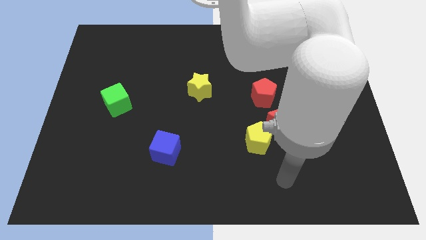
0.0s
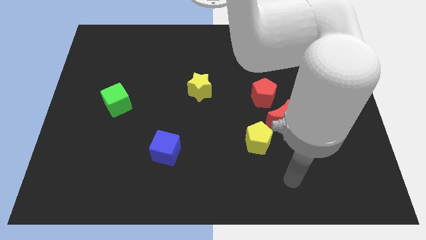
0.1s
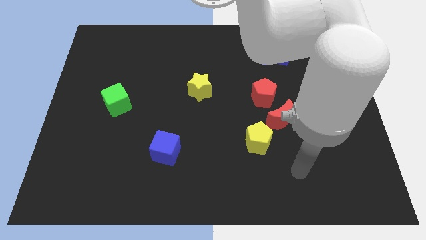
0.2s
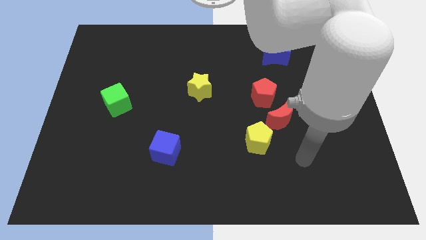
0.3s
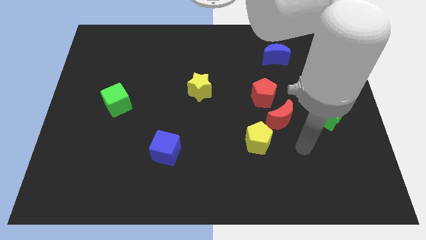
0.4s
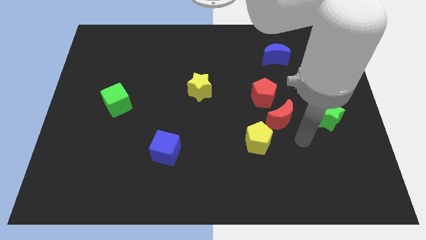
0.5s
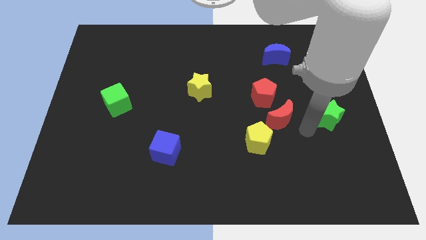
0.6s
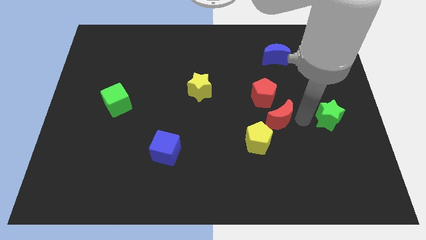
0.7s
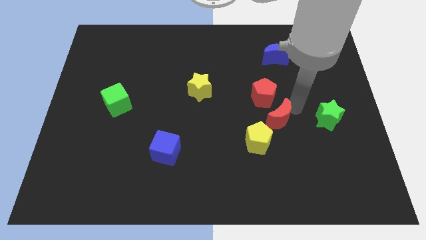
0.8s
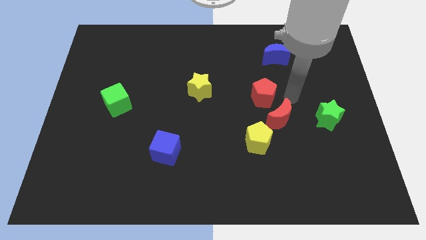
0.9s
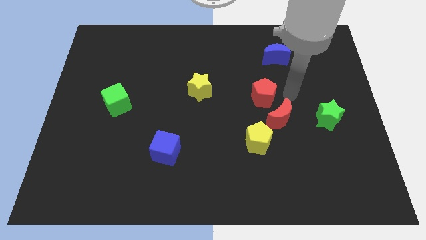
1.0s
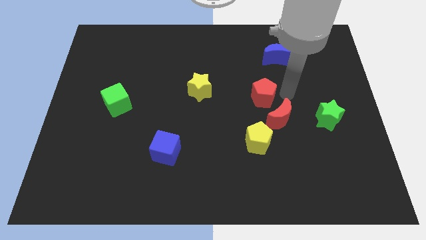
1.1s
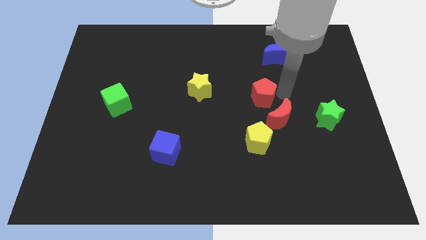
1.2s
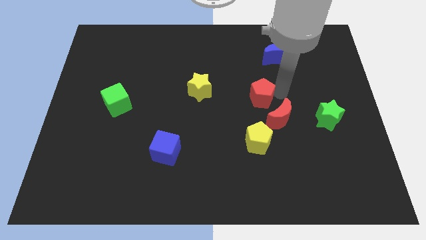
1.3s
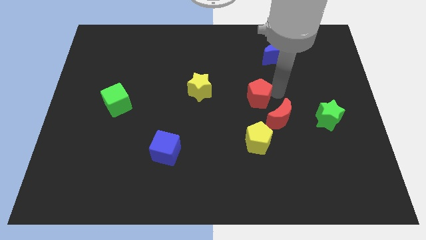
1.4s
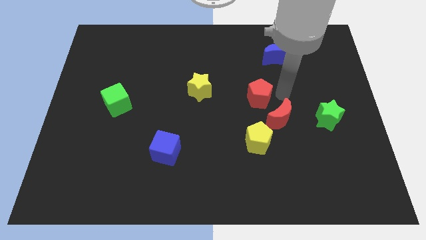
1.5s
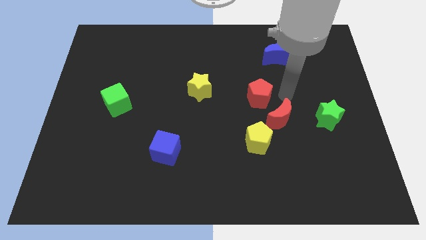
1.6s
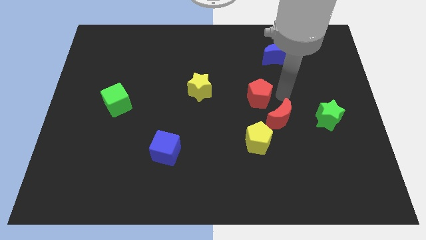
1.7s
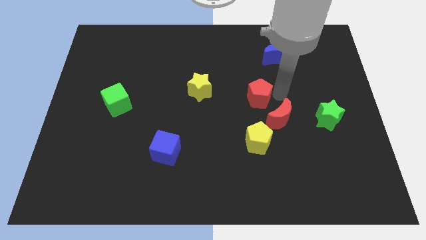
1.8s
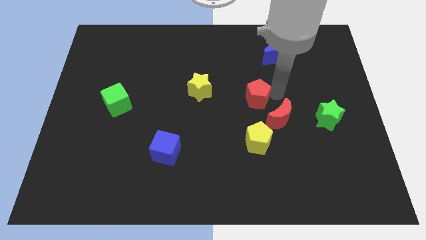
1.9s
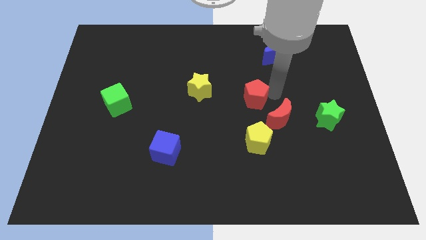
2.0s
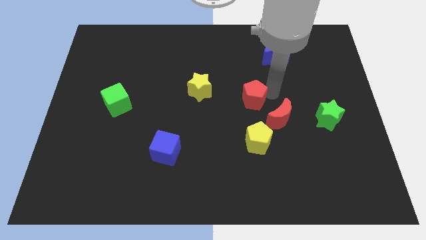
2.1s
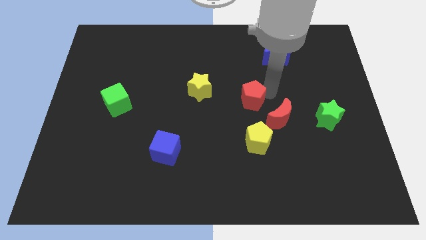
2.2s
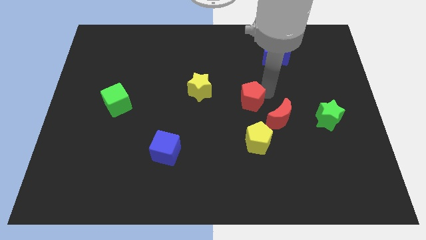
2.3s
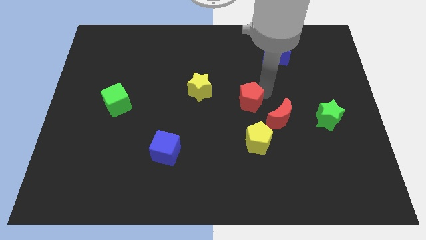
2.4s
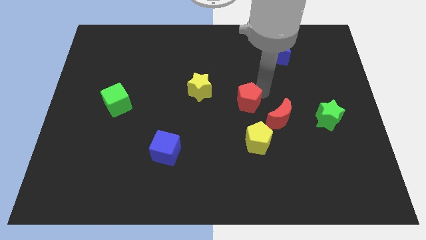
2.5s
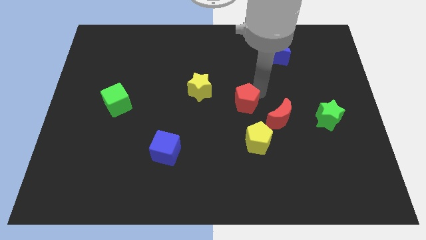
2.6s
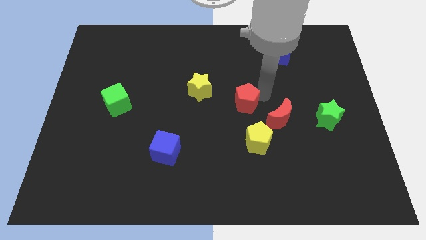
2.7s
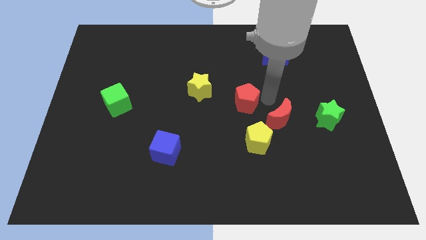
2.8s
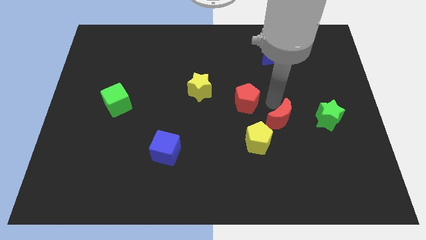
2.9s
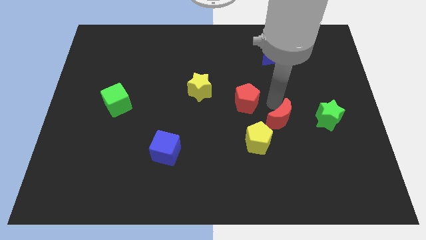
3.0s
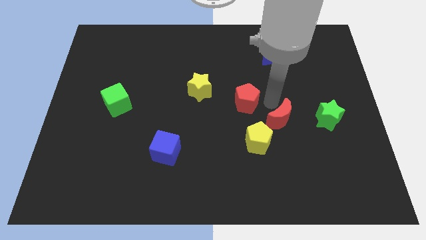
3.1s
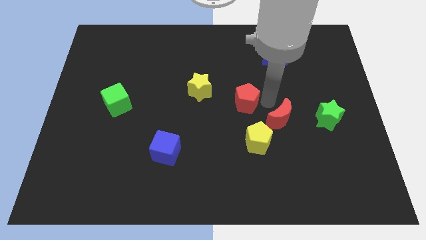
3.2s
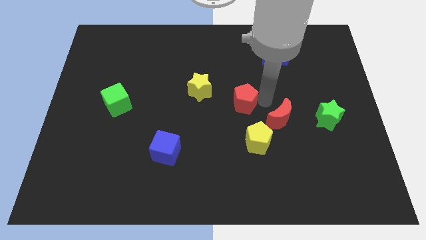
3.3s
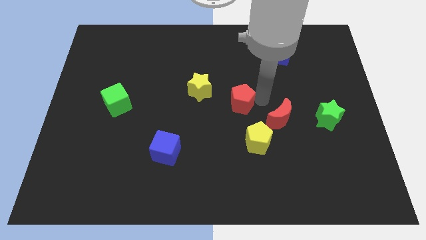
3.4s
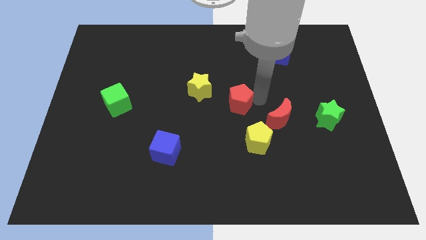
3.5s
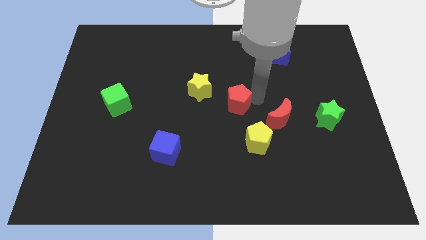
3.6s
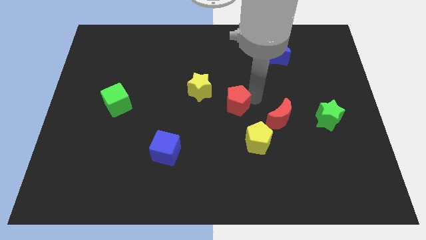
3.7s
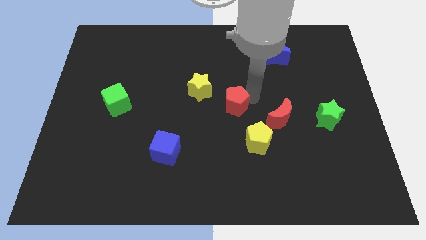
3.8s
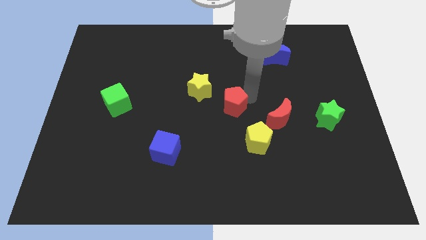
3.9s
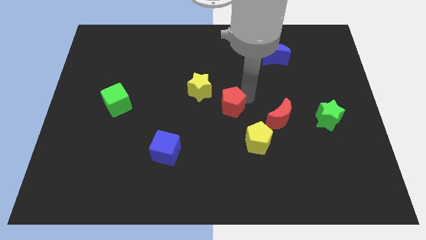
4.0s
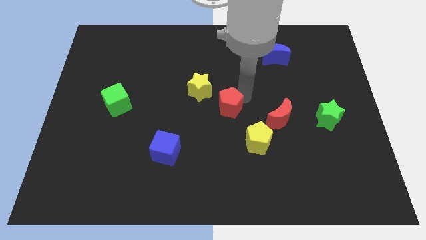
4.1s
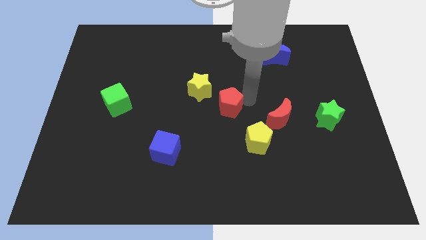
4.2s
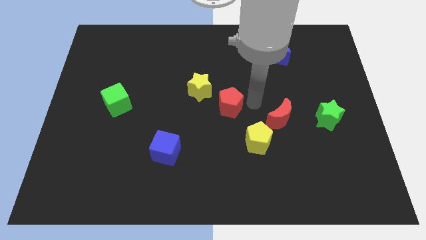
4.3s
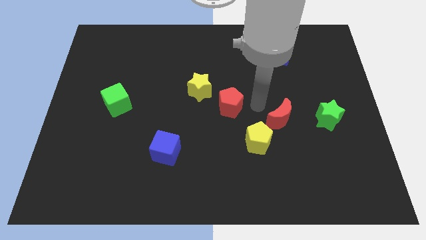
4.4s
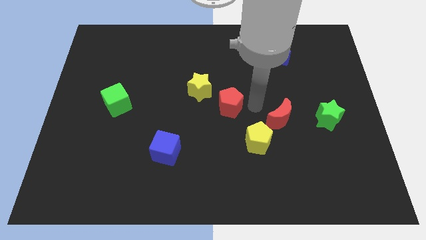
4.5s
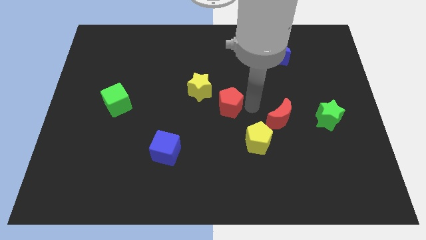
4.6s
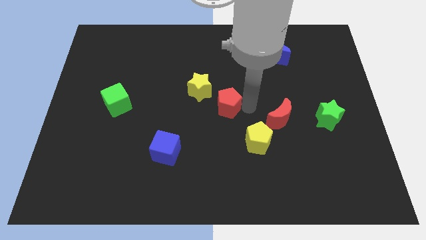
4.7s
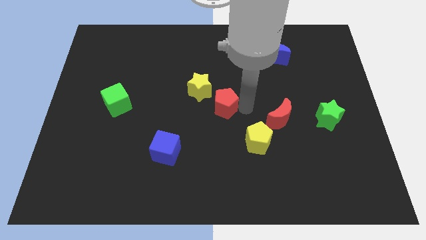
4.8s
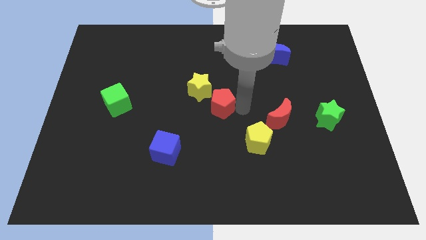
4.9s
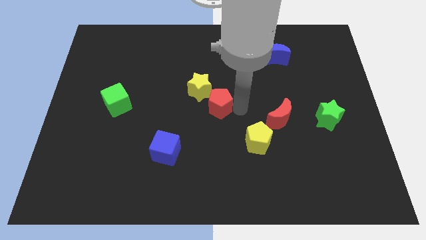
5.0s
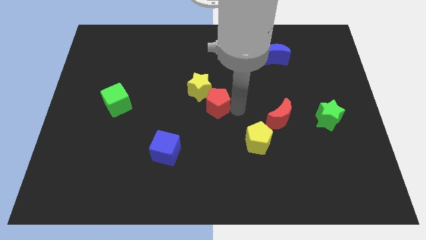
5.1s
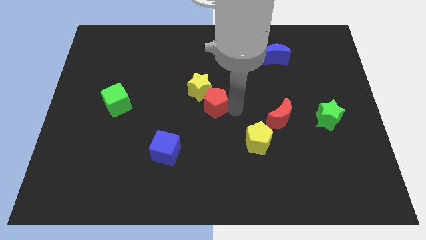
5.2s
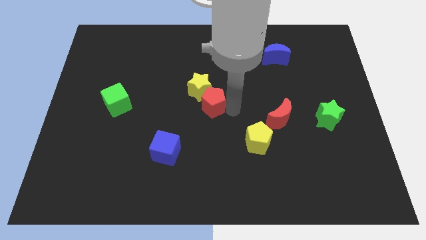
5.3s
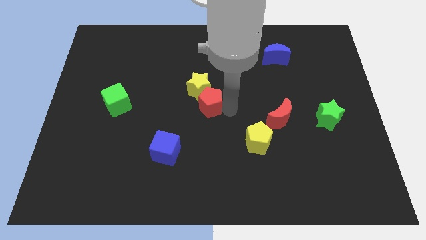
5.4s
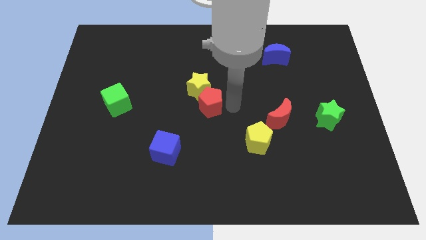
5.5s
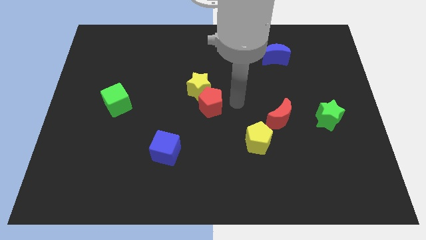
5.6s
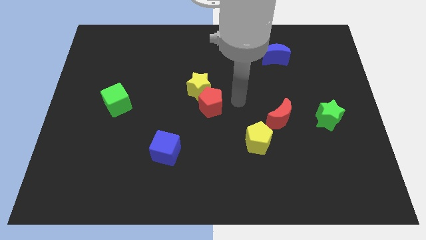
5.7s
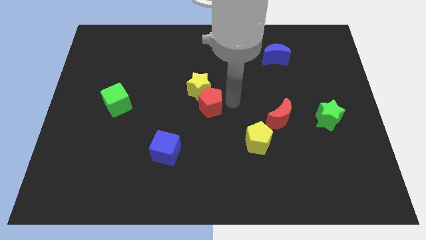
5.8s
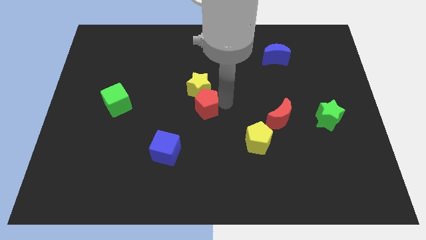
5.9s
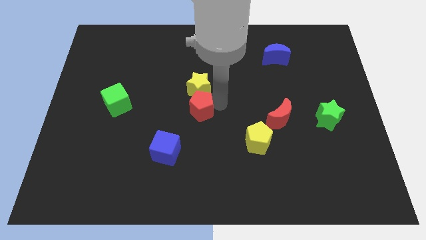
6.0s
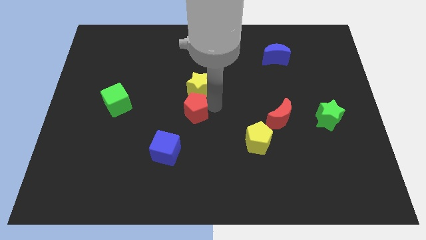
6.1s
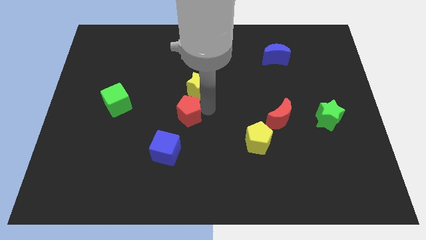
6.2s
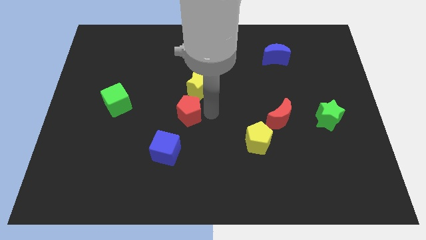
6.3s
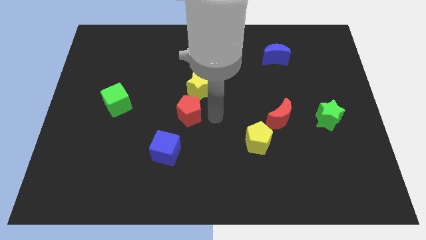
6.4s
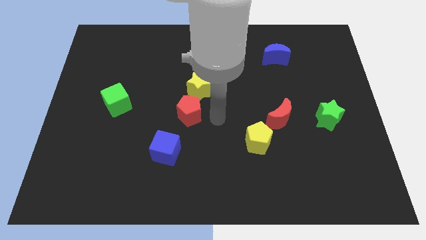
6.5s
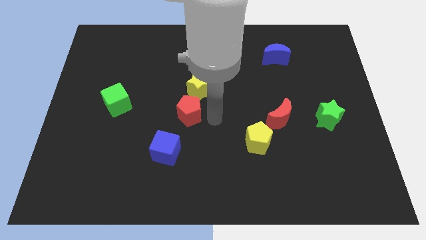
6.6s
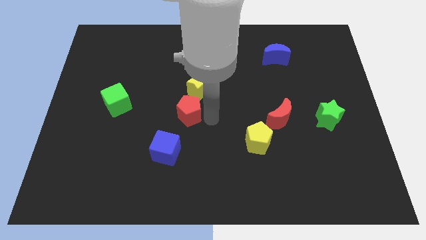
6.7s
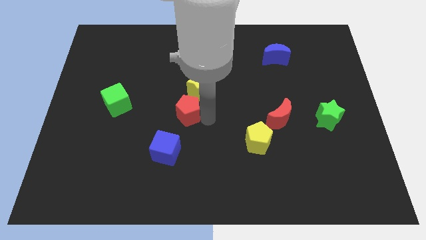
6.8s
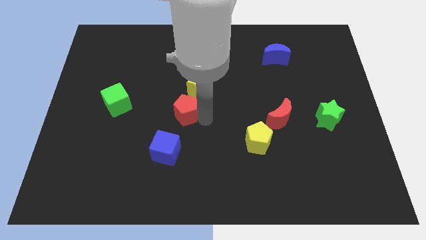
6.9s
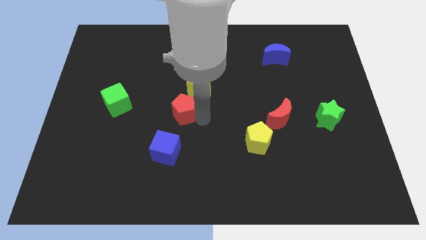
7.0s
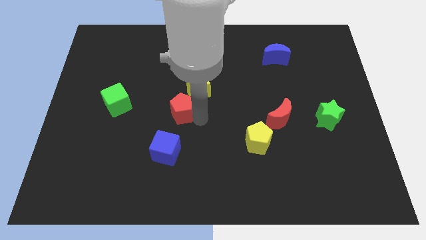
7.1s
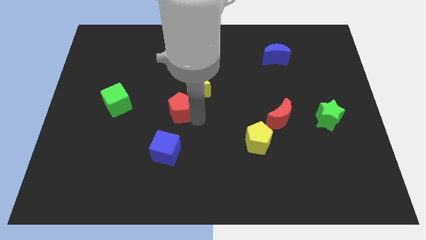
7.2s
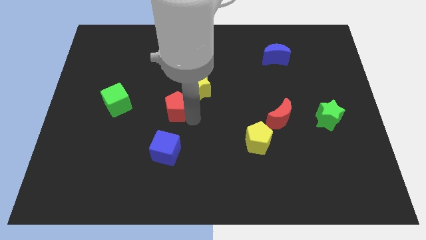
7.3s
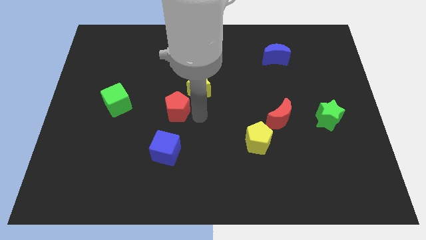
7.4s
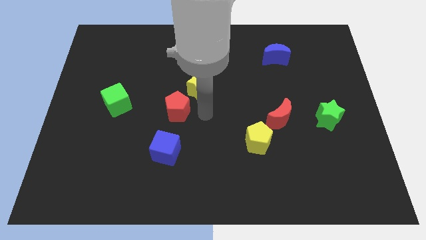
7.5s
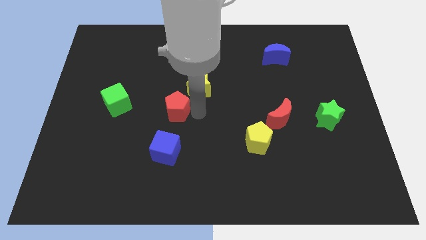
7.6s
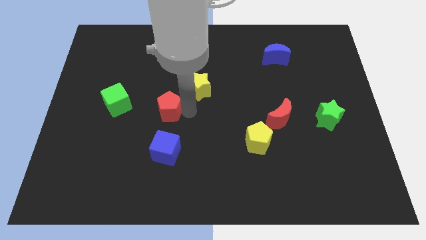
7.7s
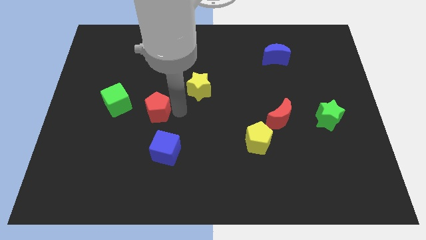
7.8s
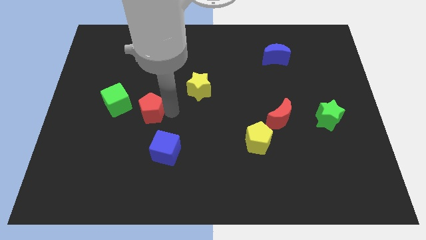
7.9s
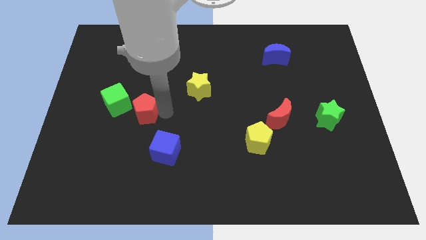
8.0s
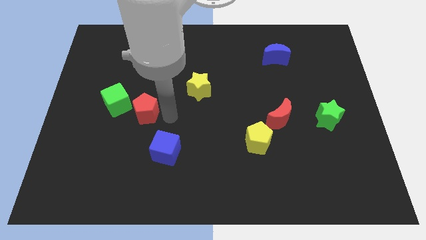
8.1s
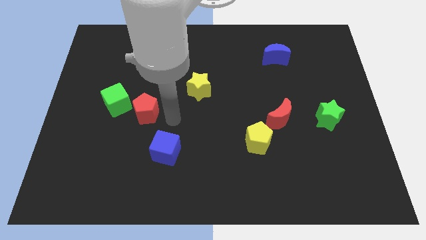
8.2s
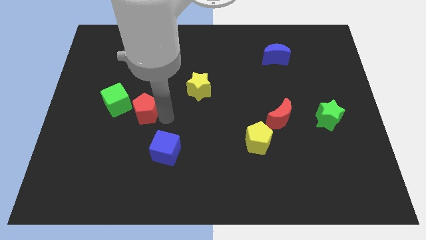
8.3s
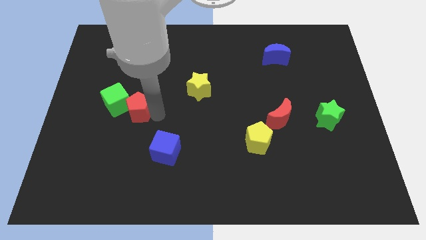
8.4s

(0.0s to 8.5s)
push the red pentagon close to the green cube
